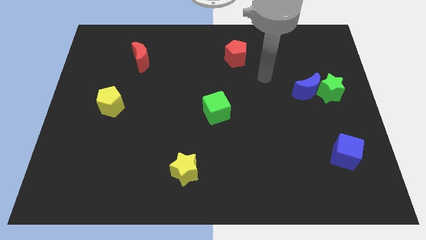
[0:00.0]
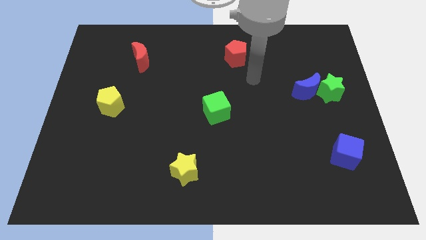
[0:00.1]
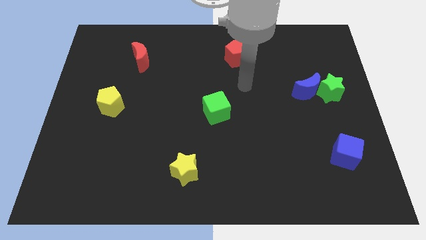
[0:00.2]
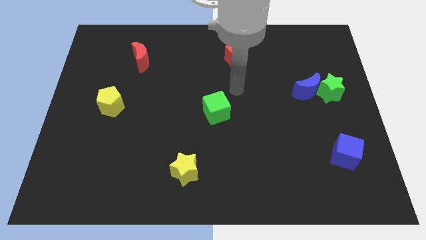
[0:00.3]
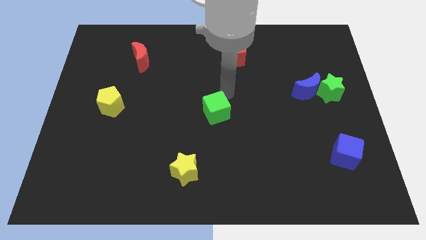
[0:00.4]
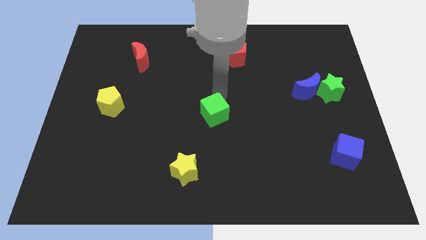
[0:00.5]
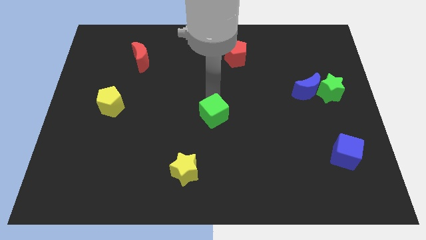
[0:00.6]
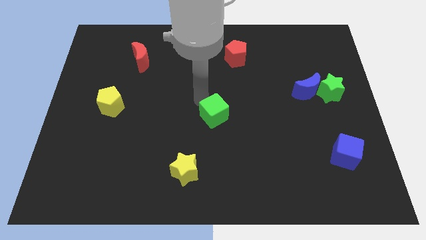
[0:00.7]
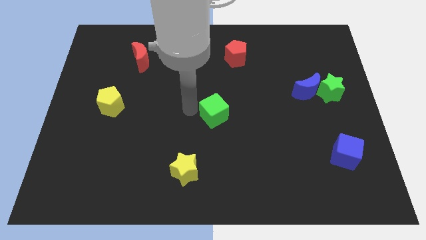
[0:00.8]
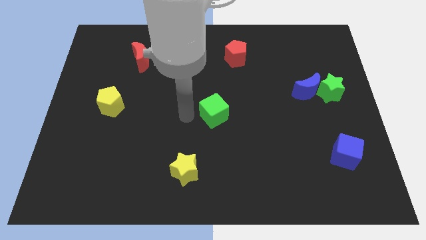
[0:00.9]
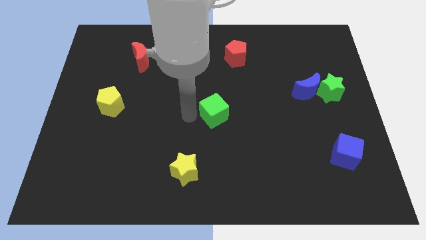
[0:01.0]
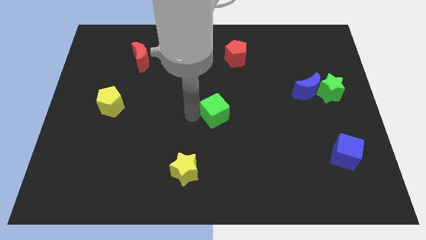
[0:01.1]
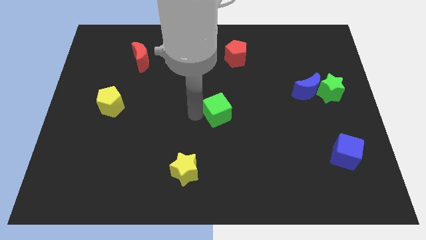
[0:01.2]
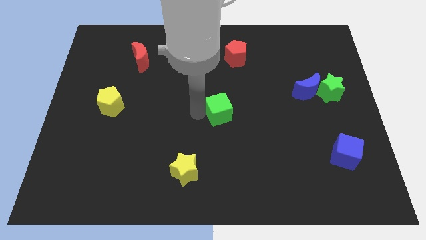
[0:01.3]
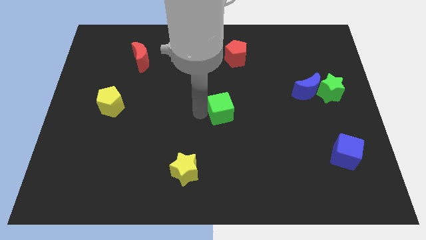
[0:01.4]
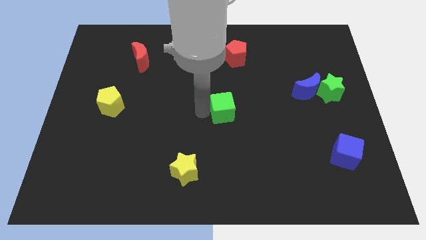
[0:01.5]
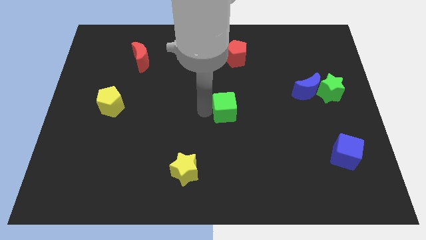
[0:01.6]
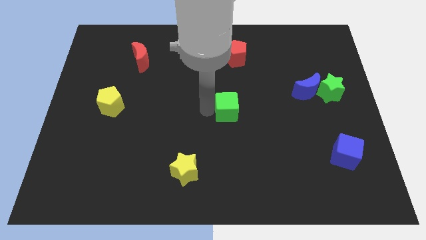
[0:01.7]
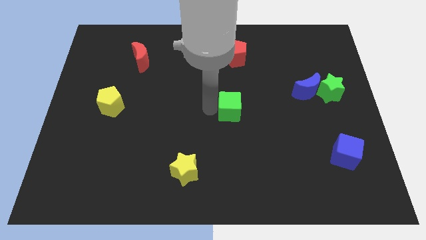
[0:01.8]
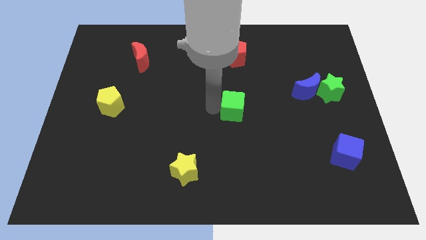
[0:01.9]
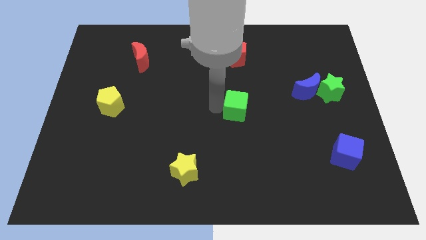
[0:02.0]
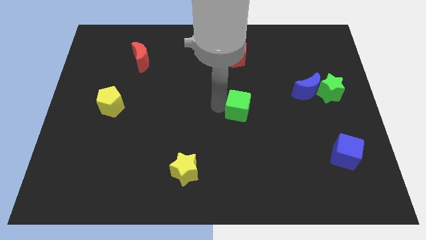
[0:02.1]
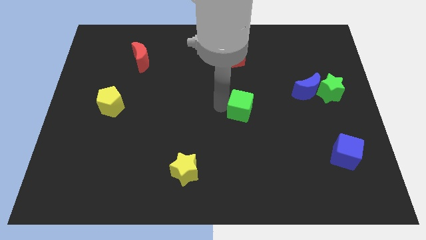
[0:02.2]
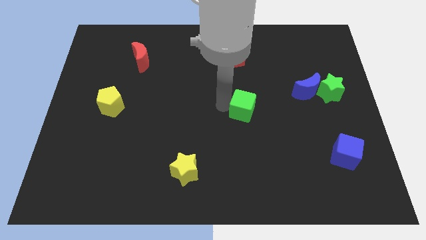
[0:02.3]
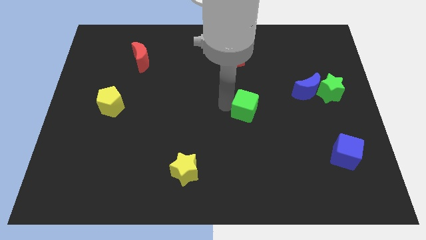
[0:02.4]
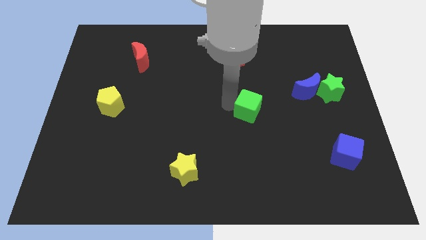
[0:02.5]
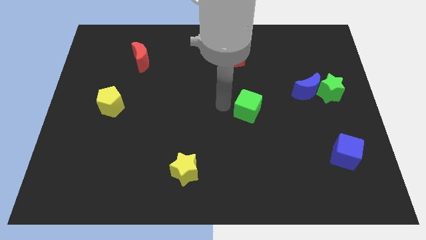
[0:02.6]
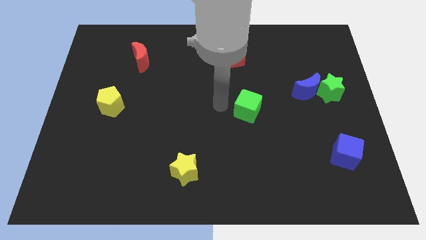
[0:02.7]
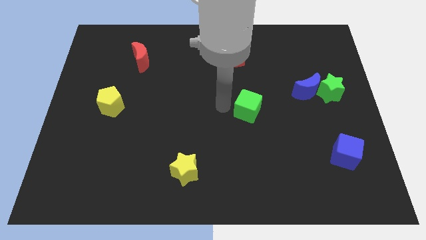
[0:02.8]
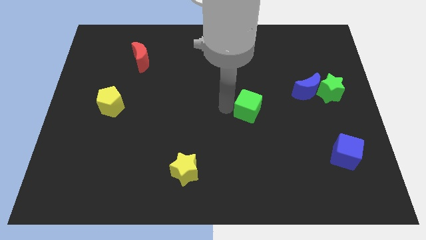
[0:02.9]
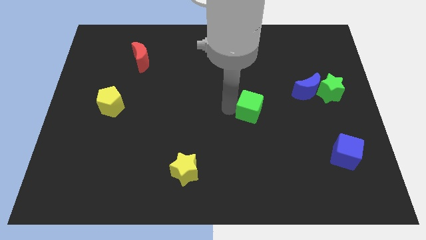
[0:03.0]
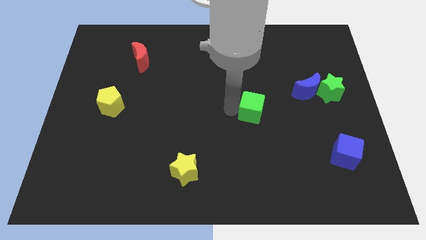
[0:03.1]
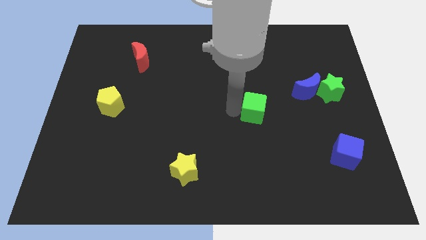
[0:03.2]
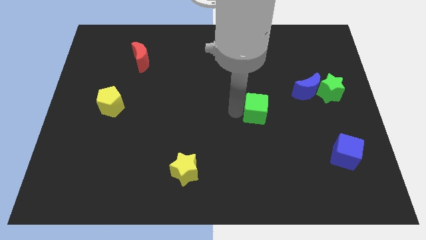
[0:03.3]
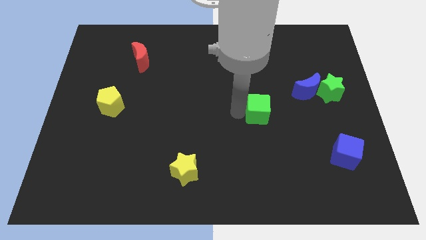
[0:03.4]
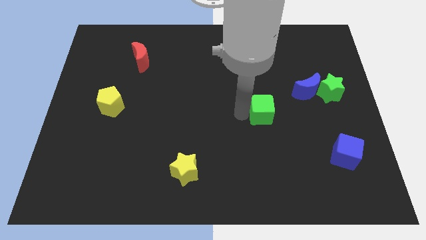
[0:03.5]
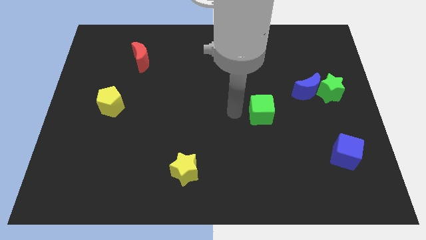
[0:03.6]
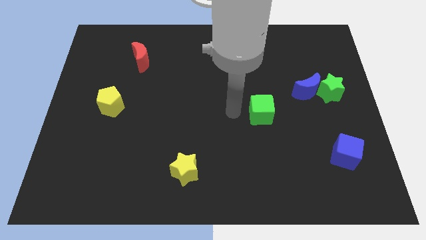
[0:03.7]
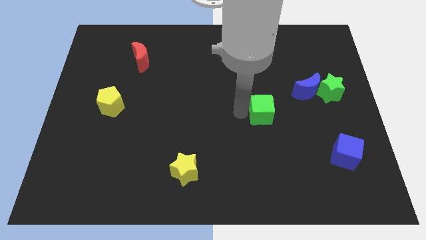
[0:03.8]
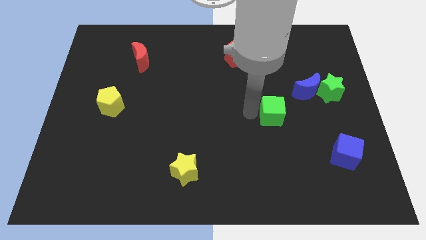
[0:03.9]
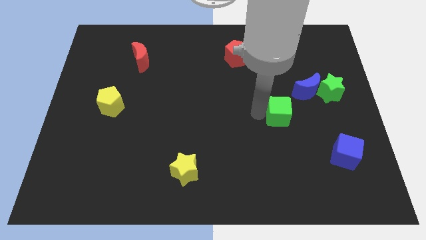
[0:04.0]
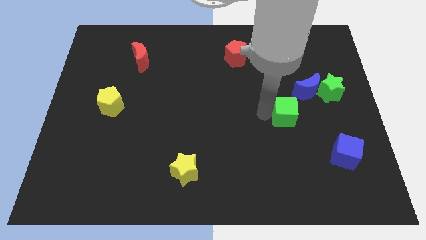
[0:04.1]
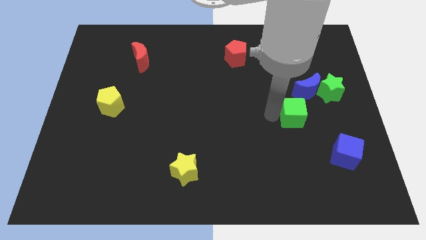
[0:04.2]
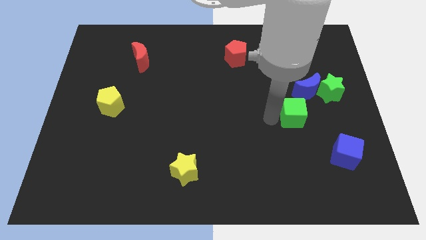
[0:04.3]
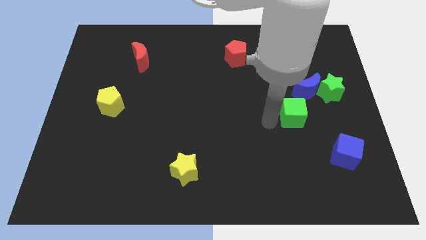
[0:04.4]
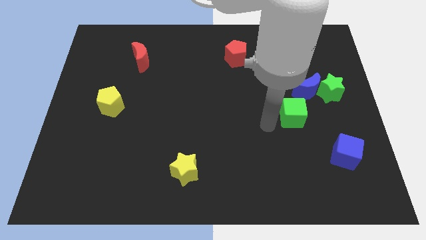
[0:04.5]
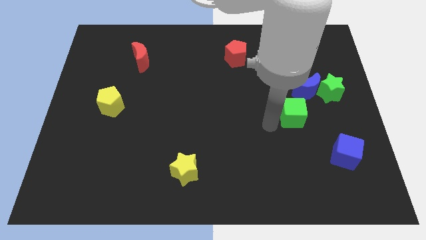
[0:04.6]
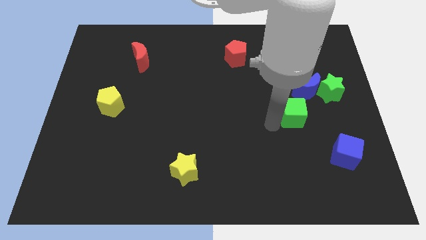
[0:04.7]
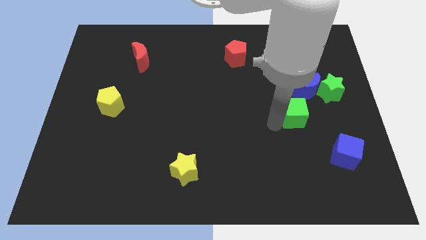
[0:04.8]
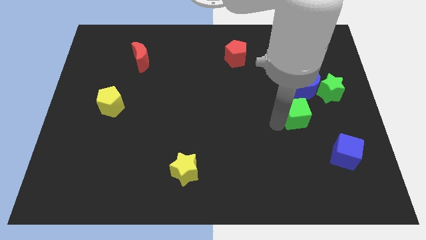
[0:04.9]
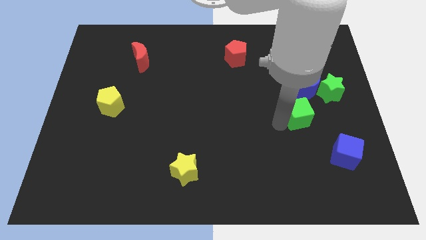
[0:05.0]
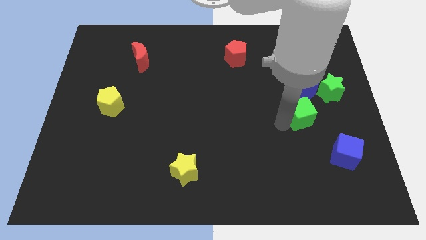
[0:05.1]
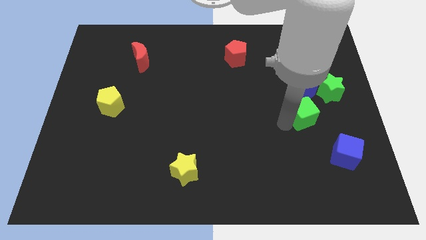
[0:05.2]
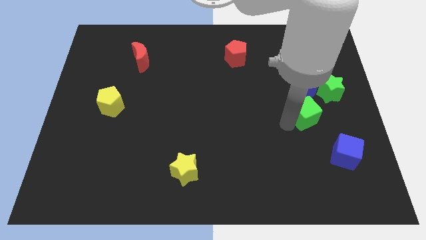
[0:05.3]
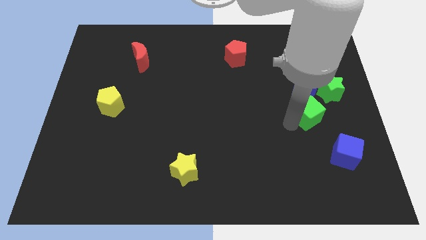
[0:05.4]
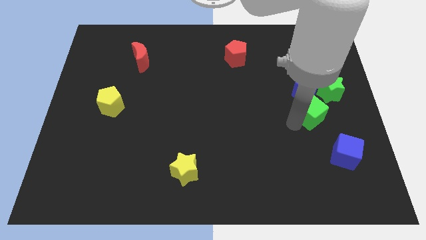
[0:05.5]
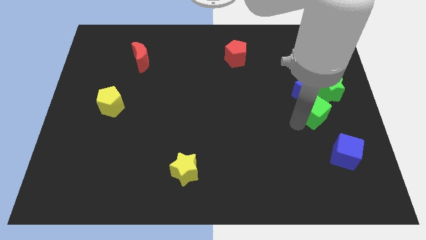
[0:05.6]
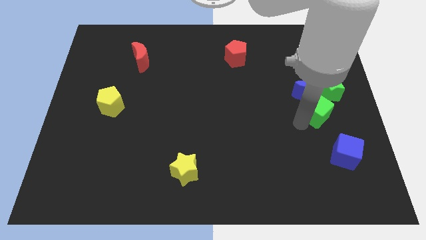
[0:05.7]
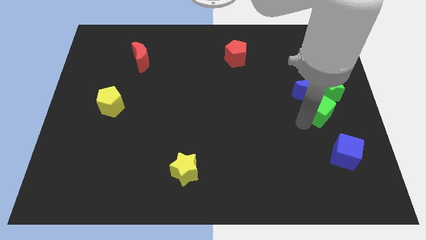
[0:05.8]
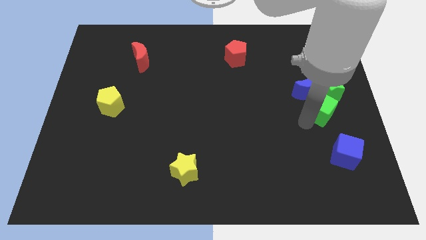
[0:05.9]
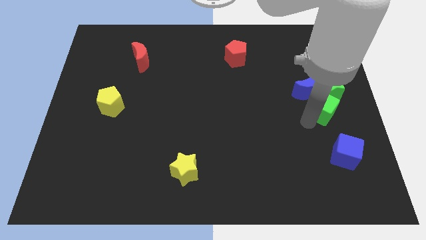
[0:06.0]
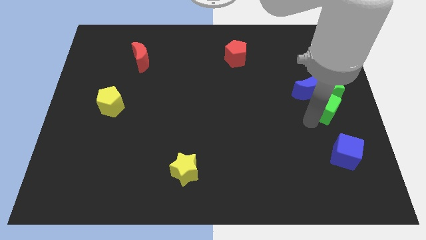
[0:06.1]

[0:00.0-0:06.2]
slide the green cube next to the green star

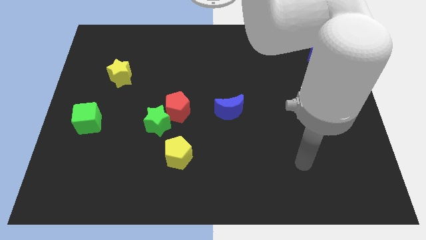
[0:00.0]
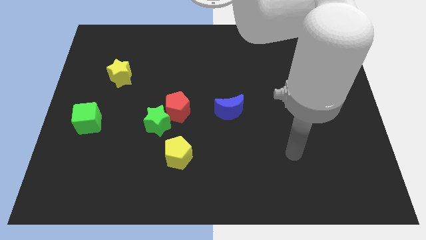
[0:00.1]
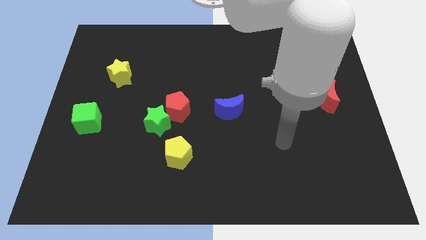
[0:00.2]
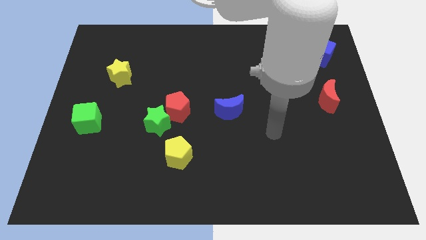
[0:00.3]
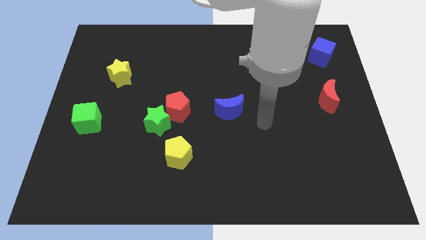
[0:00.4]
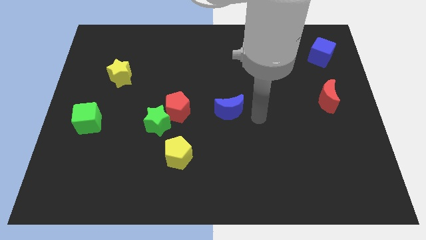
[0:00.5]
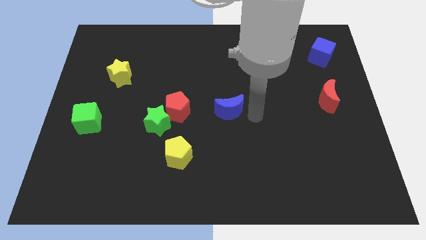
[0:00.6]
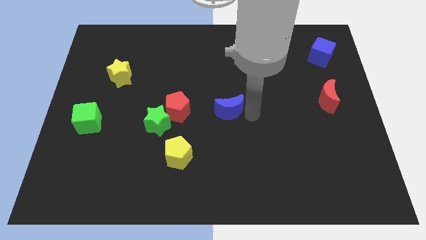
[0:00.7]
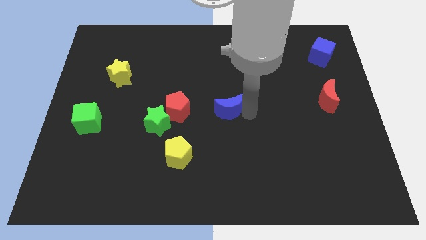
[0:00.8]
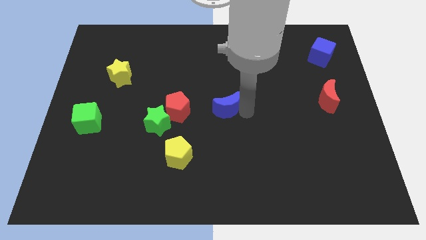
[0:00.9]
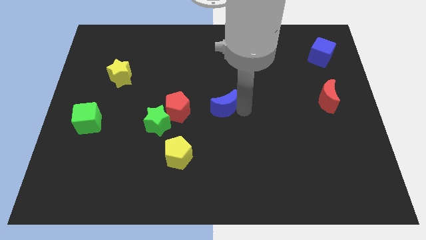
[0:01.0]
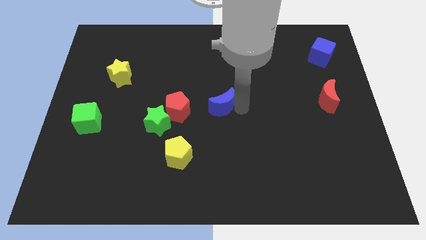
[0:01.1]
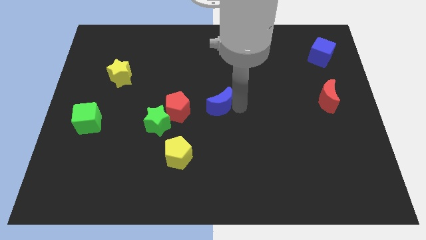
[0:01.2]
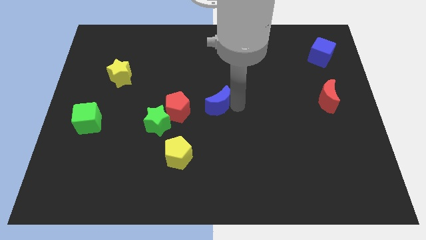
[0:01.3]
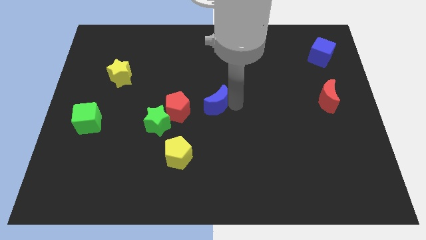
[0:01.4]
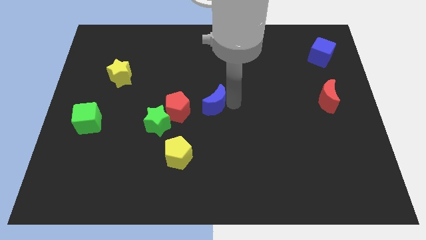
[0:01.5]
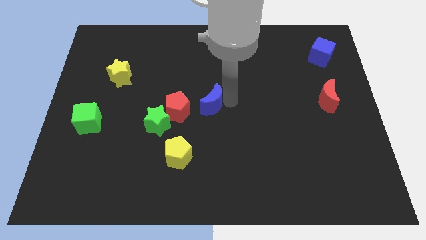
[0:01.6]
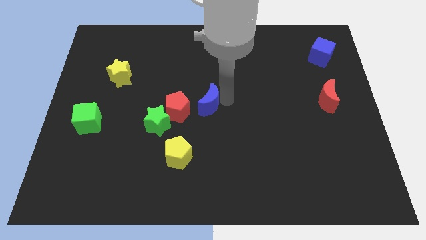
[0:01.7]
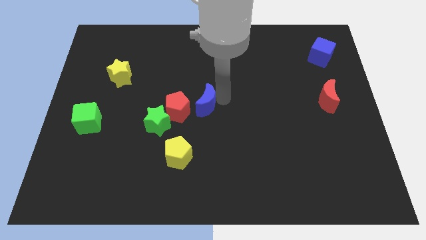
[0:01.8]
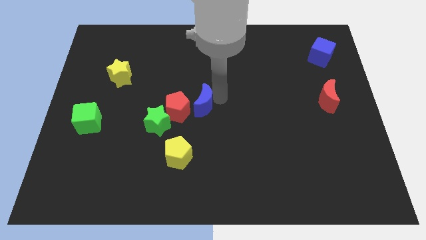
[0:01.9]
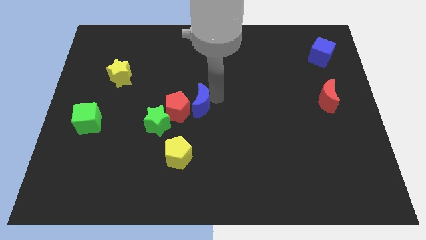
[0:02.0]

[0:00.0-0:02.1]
slide the blue moon to the red pentagon
